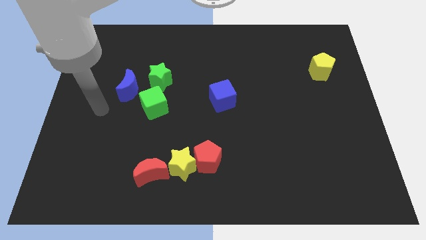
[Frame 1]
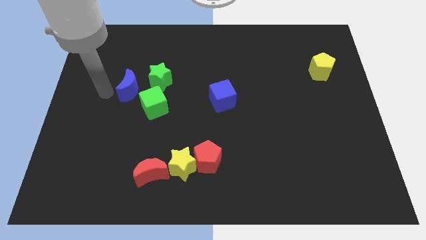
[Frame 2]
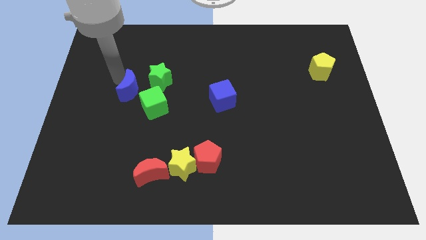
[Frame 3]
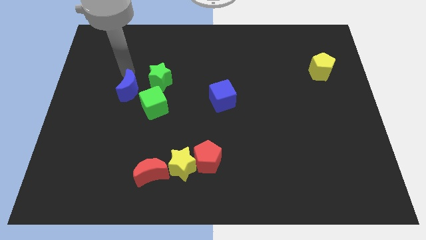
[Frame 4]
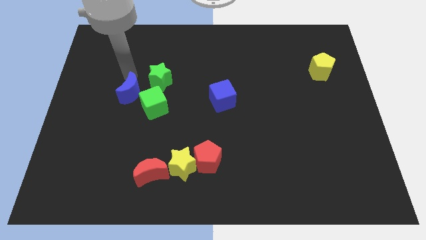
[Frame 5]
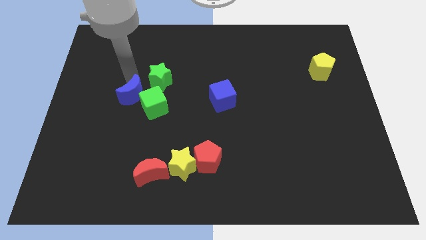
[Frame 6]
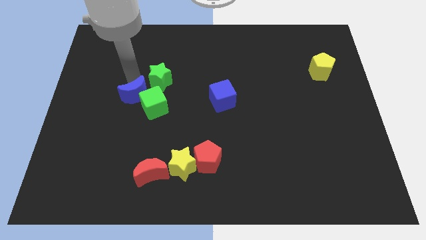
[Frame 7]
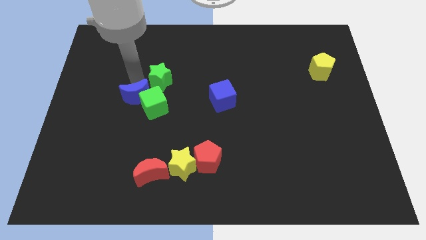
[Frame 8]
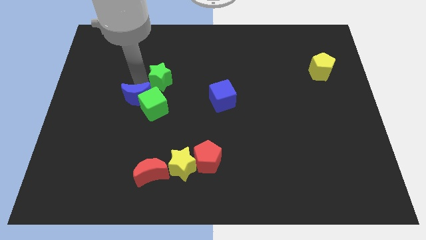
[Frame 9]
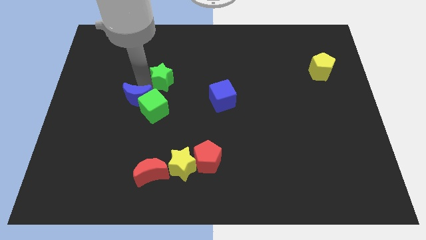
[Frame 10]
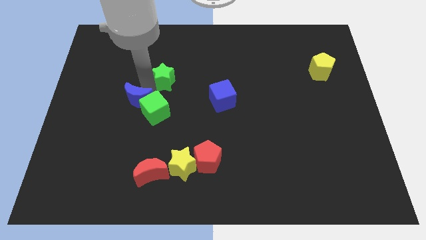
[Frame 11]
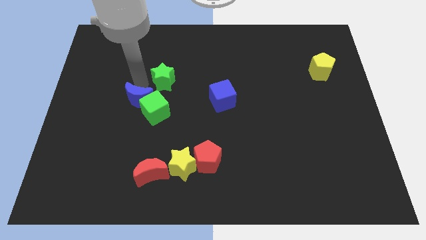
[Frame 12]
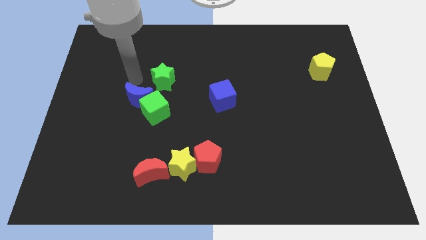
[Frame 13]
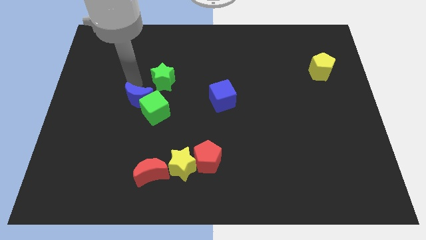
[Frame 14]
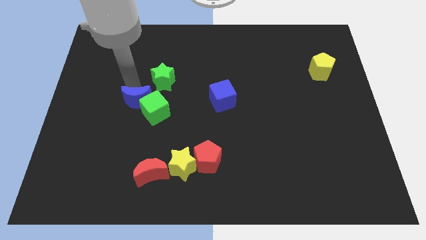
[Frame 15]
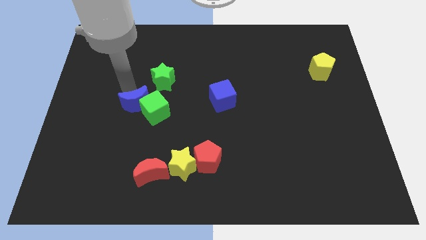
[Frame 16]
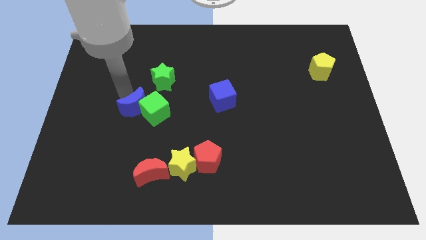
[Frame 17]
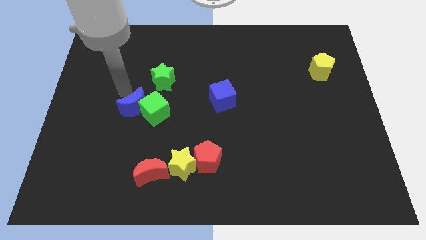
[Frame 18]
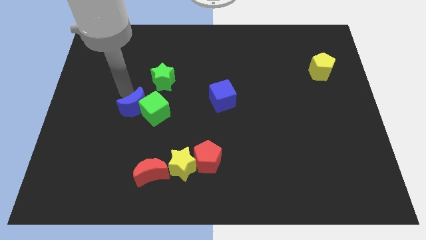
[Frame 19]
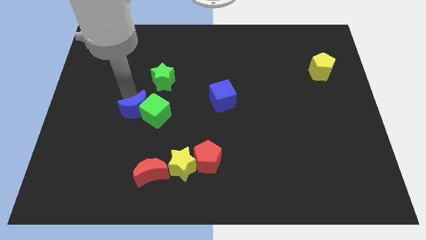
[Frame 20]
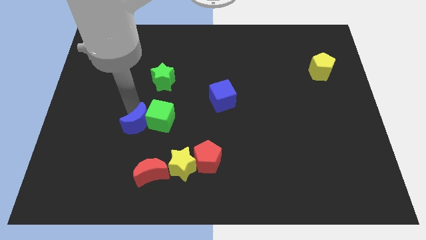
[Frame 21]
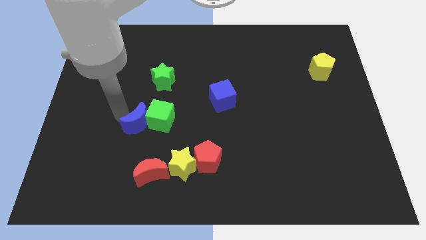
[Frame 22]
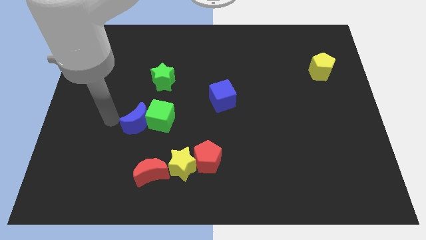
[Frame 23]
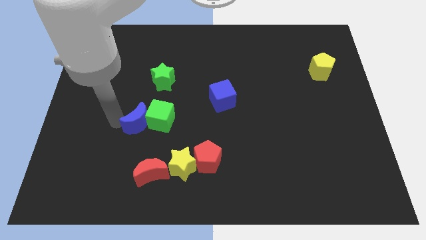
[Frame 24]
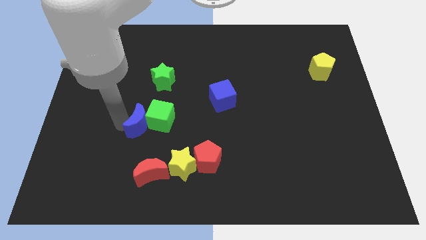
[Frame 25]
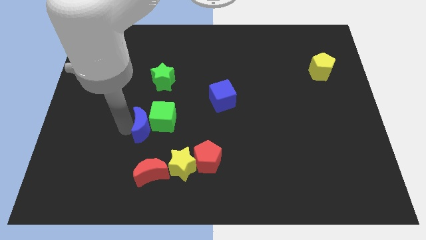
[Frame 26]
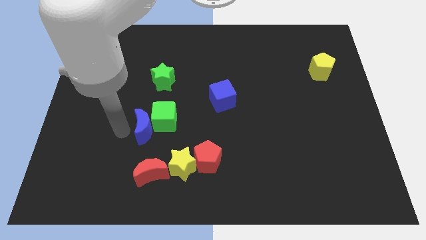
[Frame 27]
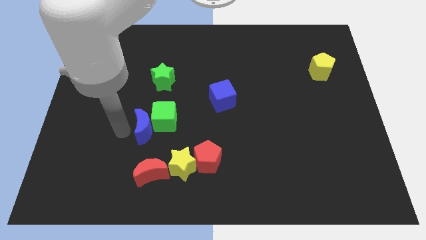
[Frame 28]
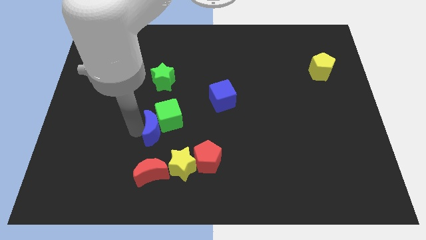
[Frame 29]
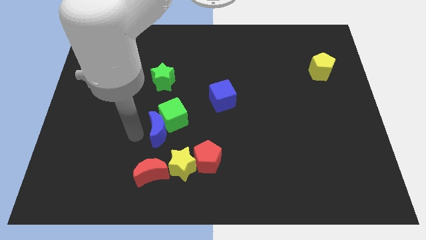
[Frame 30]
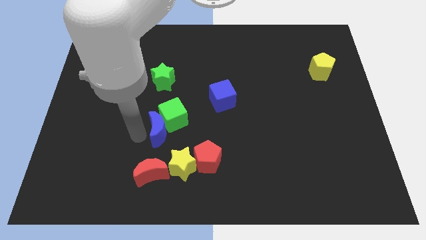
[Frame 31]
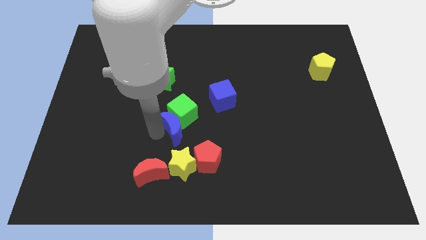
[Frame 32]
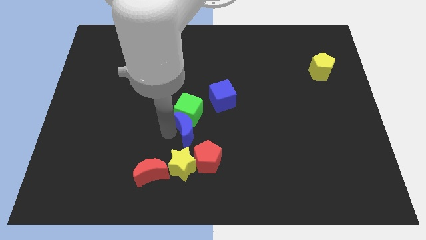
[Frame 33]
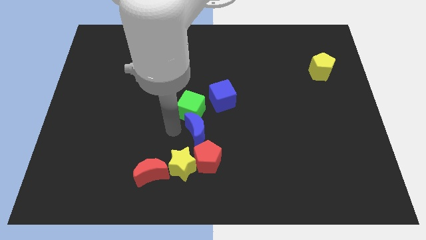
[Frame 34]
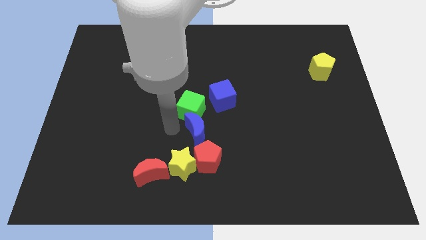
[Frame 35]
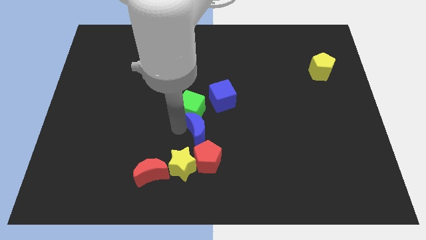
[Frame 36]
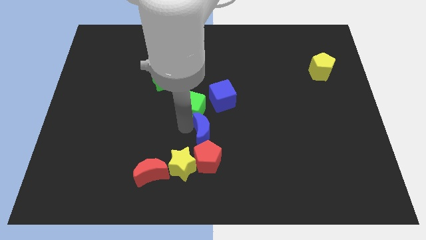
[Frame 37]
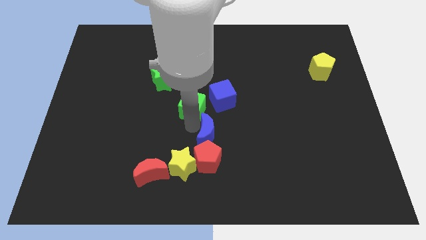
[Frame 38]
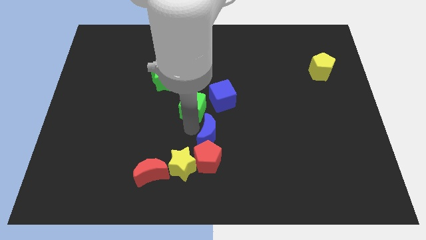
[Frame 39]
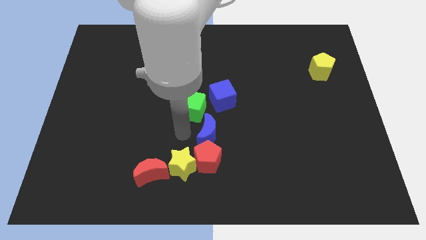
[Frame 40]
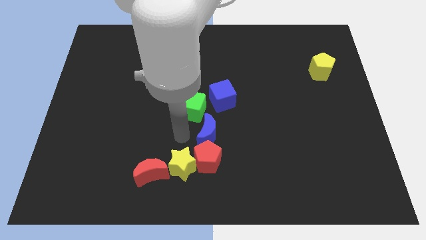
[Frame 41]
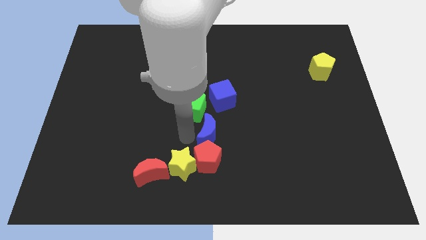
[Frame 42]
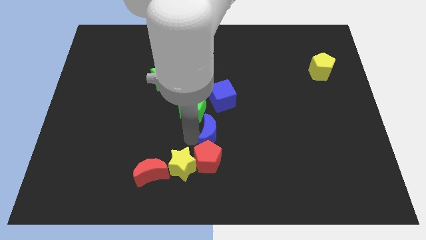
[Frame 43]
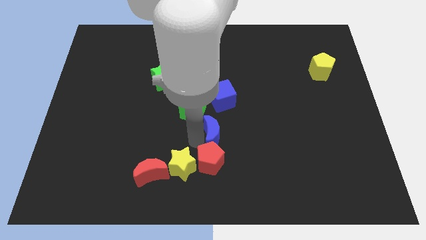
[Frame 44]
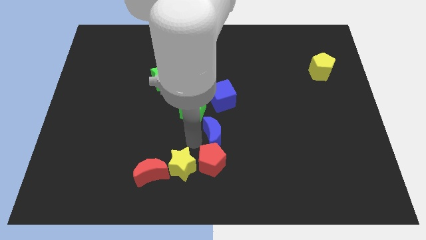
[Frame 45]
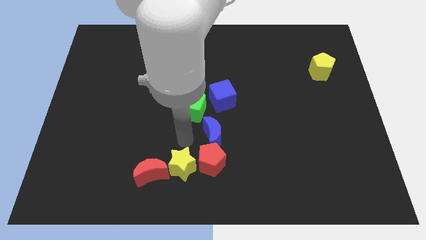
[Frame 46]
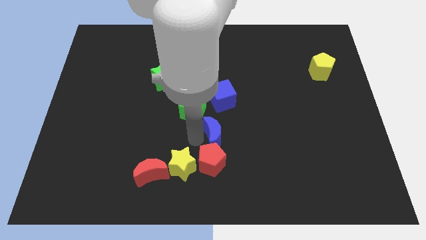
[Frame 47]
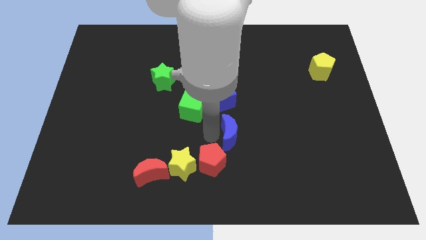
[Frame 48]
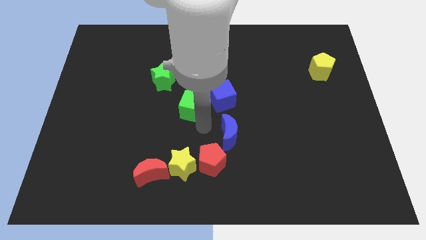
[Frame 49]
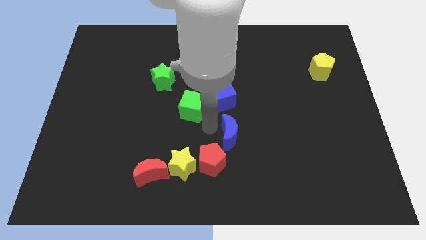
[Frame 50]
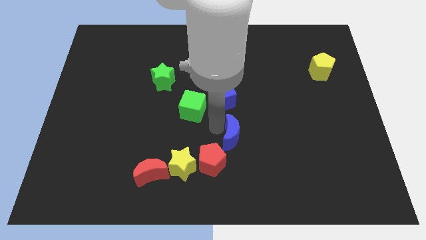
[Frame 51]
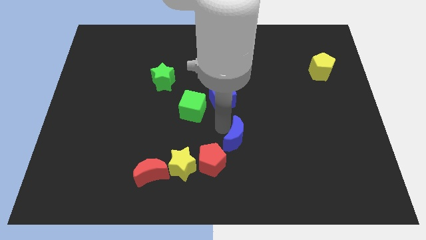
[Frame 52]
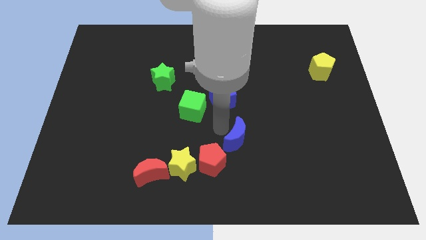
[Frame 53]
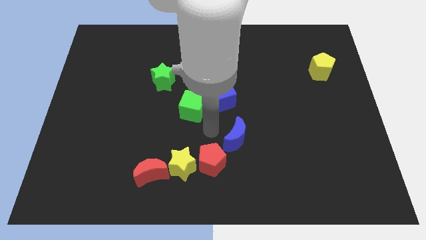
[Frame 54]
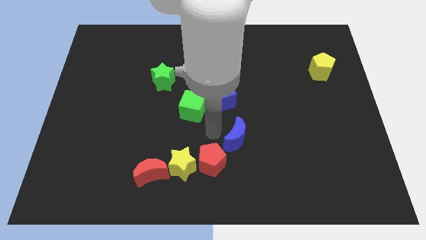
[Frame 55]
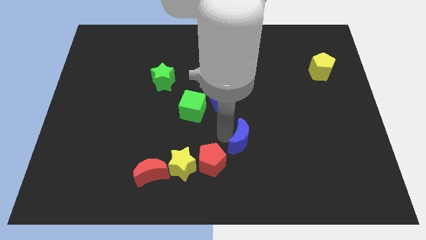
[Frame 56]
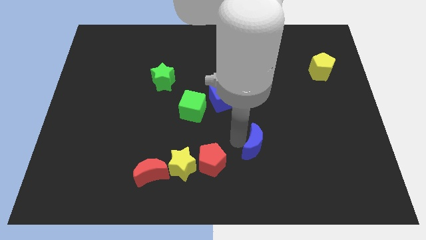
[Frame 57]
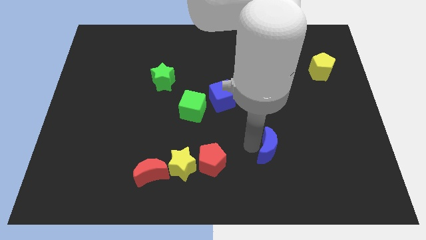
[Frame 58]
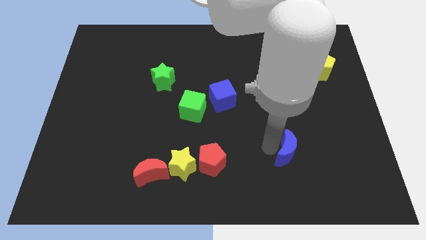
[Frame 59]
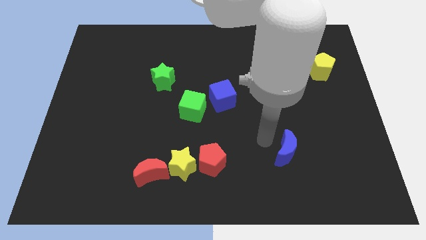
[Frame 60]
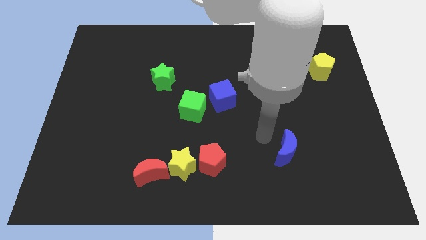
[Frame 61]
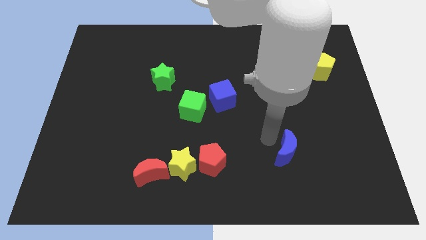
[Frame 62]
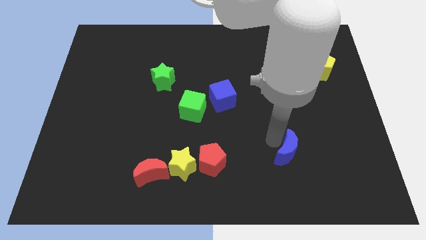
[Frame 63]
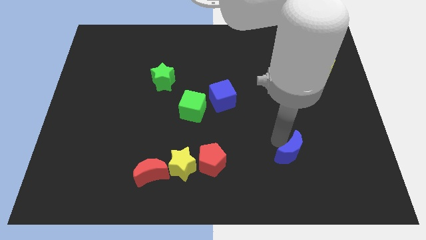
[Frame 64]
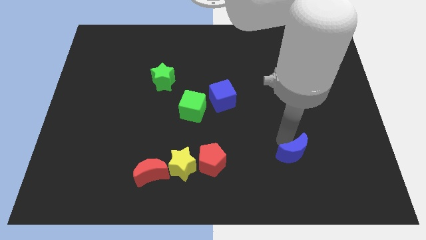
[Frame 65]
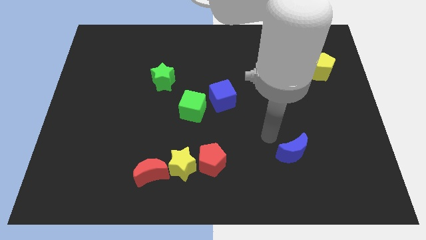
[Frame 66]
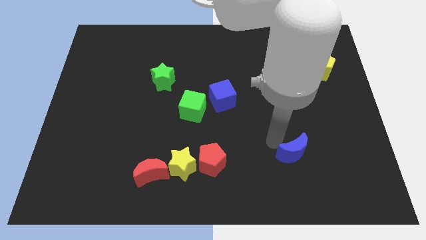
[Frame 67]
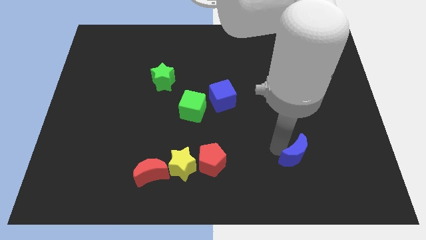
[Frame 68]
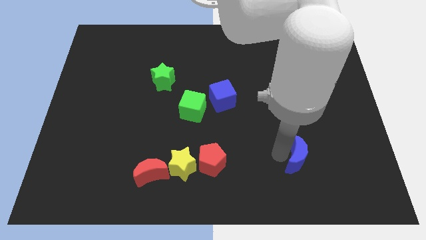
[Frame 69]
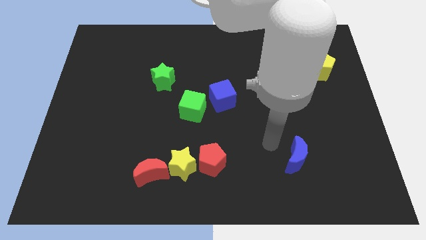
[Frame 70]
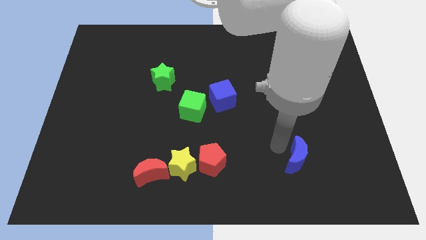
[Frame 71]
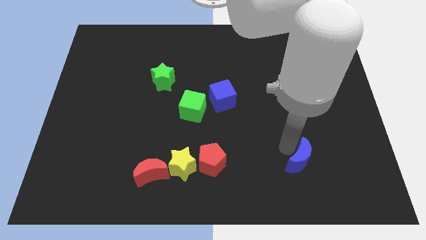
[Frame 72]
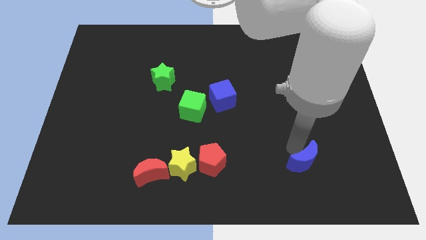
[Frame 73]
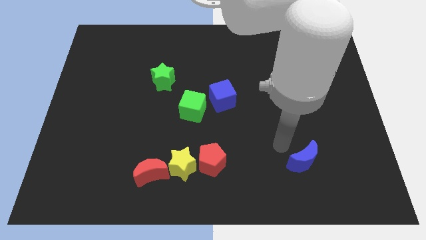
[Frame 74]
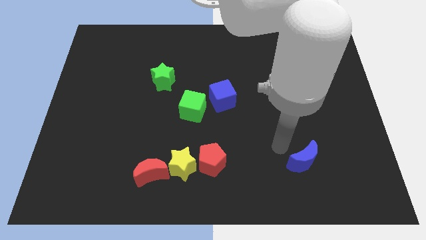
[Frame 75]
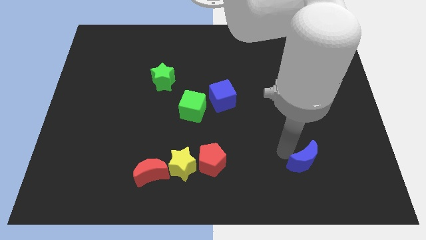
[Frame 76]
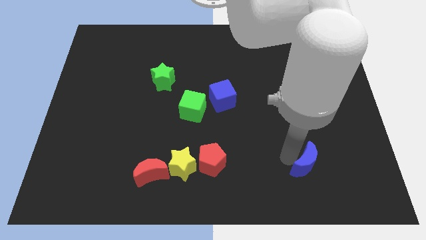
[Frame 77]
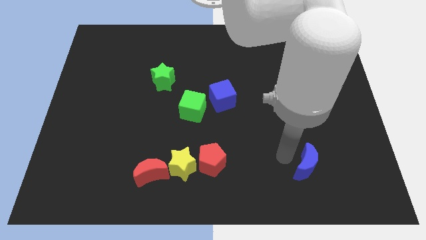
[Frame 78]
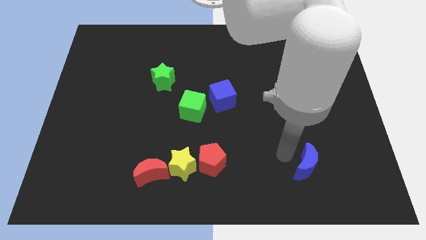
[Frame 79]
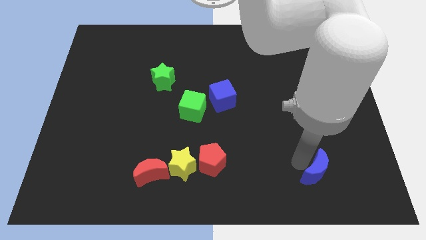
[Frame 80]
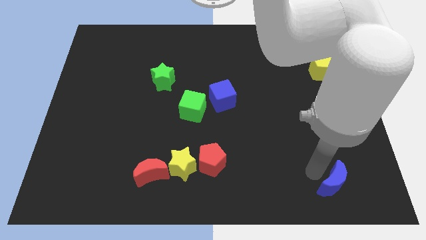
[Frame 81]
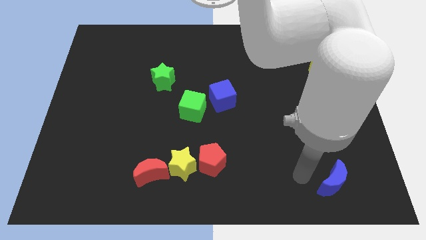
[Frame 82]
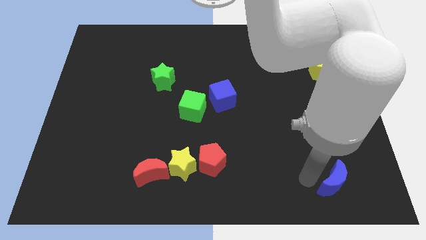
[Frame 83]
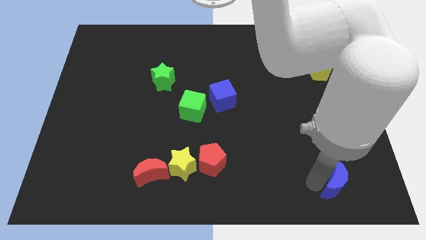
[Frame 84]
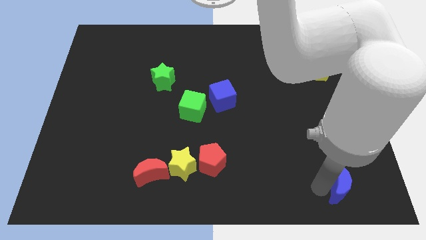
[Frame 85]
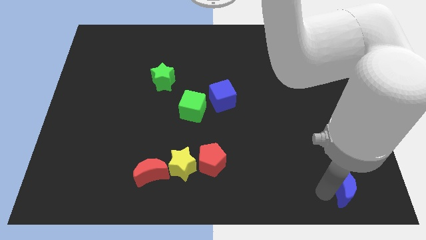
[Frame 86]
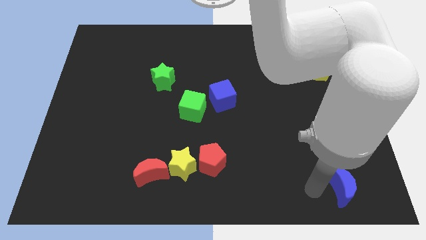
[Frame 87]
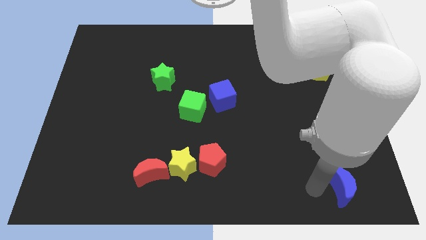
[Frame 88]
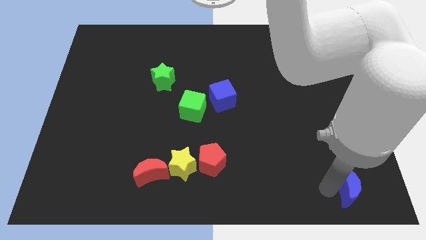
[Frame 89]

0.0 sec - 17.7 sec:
push the blue moon to the bottom right
